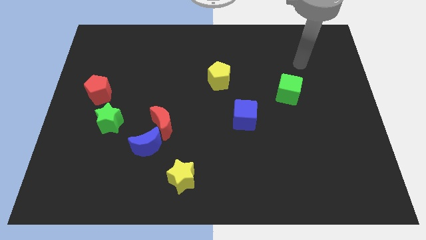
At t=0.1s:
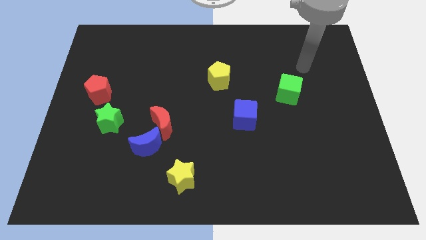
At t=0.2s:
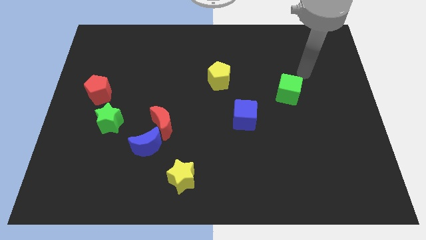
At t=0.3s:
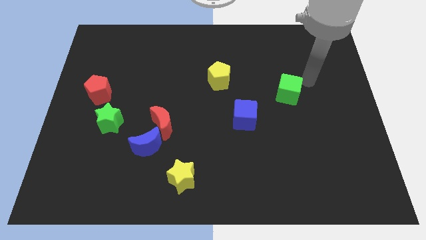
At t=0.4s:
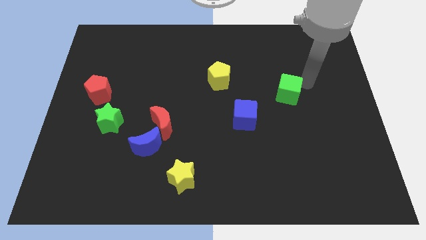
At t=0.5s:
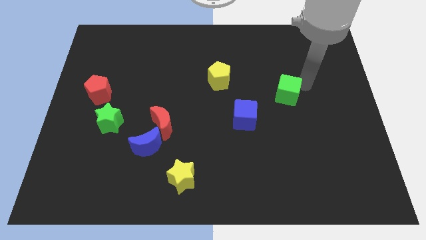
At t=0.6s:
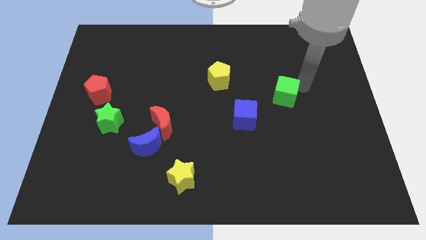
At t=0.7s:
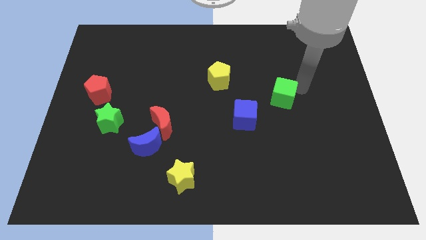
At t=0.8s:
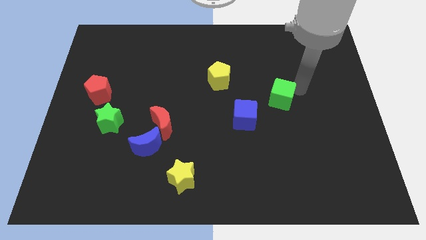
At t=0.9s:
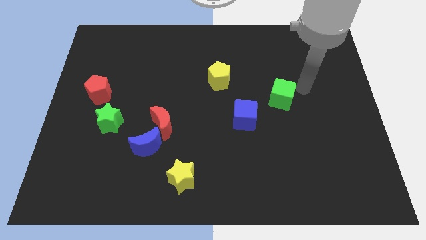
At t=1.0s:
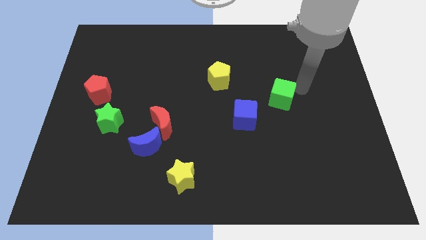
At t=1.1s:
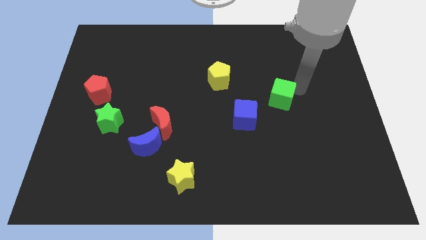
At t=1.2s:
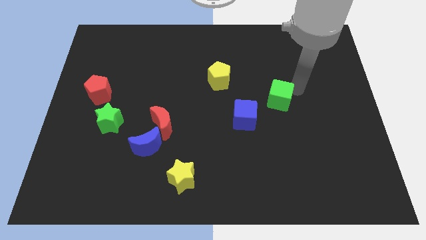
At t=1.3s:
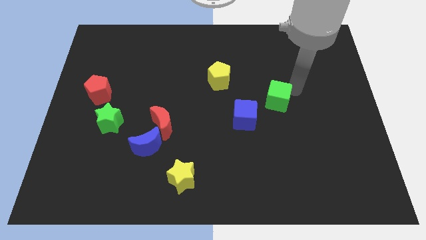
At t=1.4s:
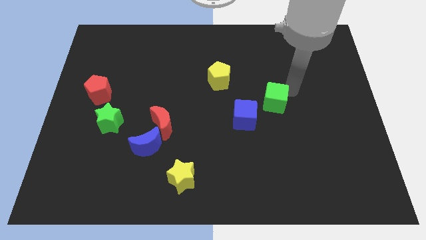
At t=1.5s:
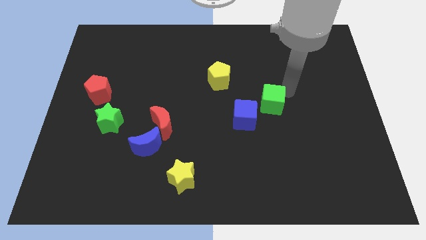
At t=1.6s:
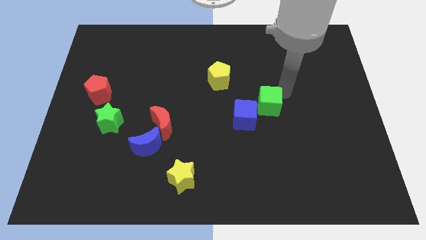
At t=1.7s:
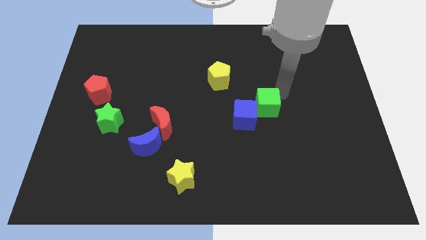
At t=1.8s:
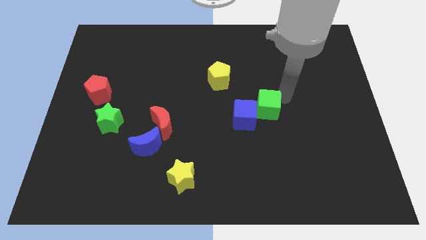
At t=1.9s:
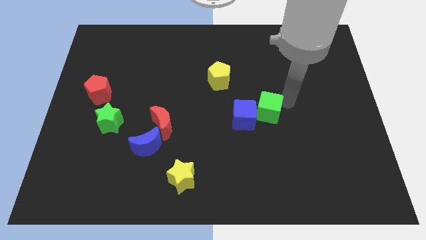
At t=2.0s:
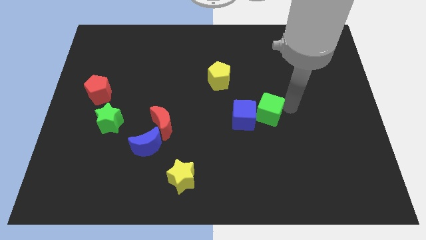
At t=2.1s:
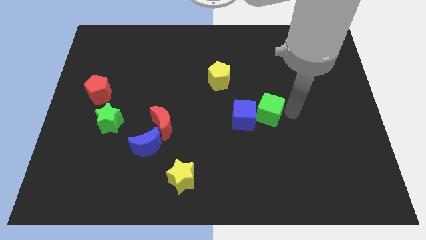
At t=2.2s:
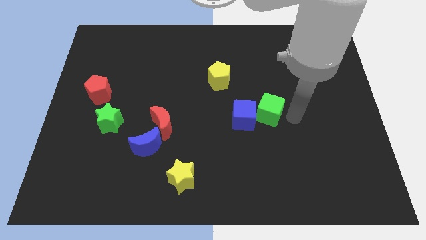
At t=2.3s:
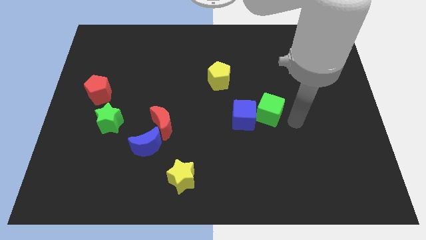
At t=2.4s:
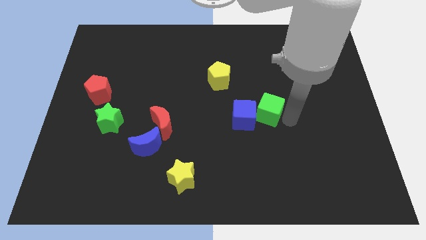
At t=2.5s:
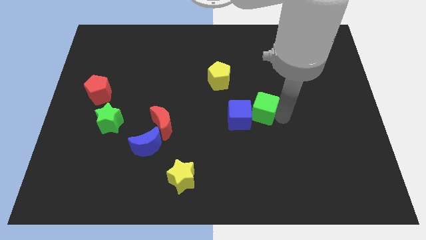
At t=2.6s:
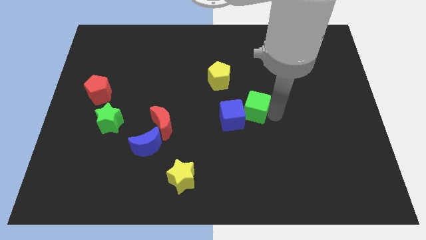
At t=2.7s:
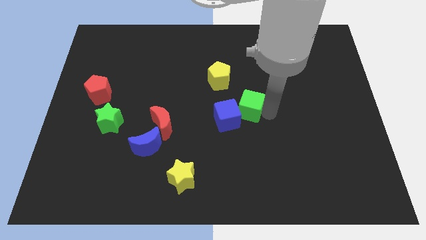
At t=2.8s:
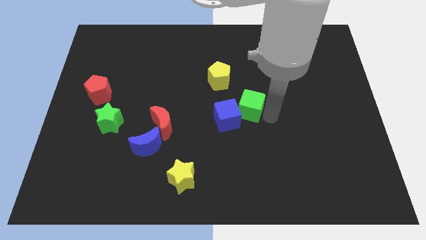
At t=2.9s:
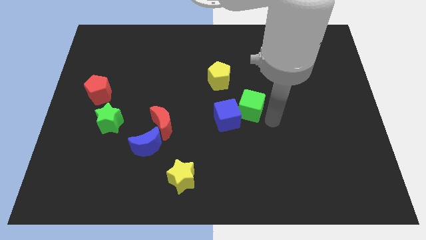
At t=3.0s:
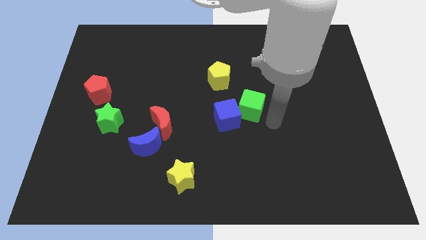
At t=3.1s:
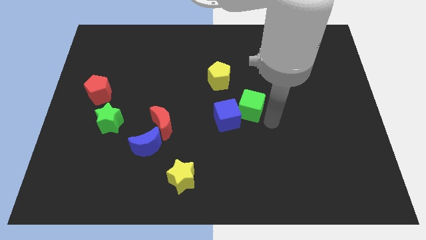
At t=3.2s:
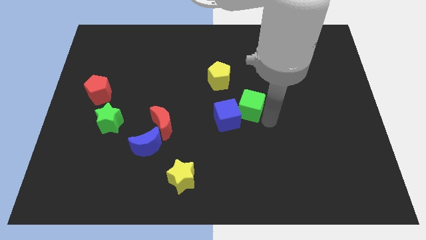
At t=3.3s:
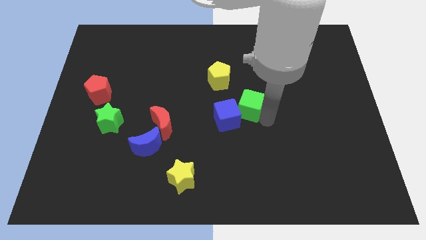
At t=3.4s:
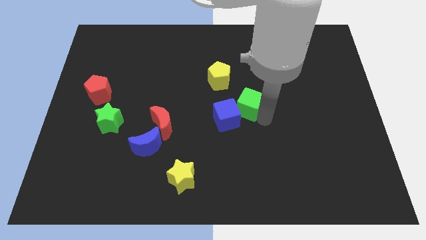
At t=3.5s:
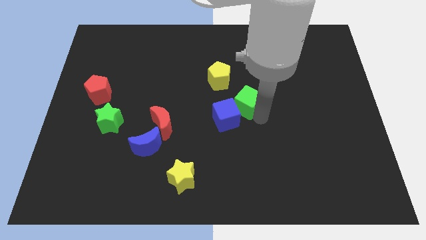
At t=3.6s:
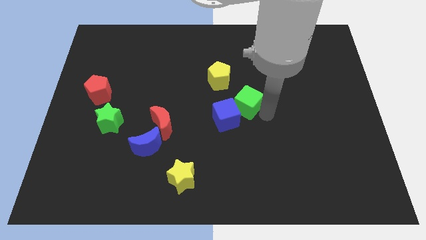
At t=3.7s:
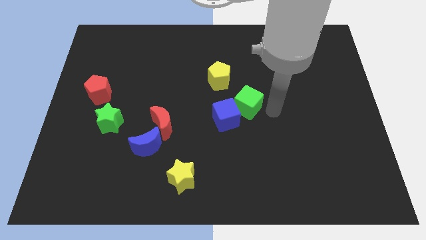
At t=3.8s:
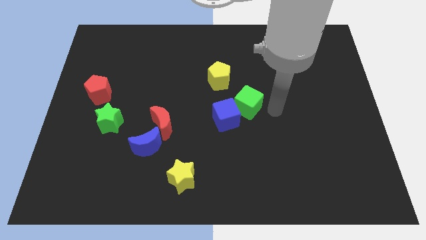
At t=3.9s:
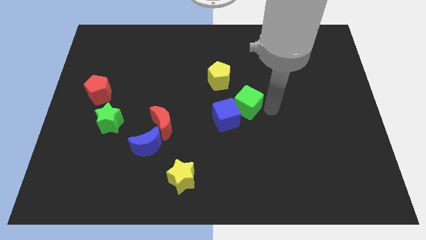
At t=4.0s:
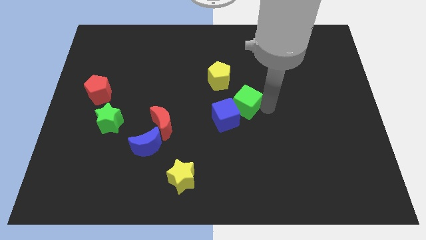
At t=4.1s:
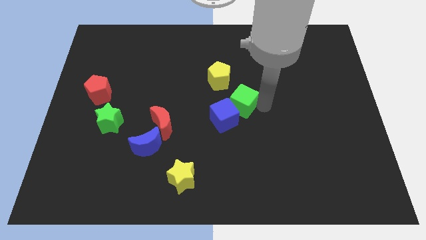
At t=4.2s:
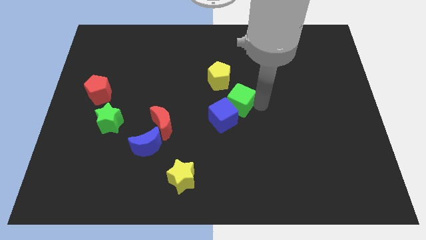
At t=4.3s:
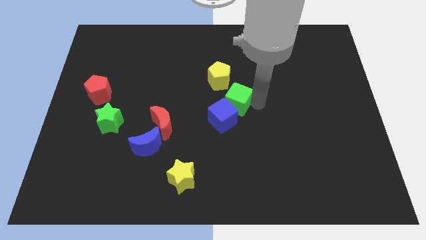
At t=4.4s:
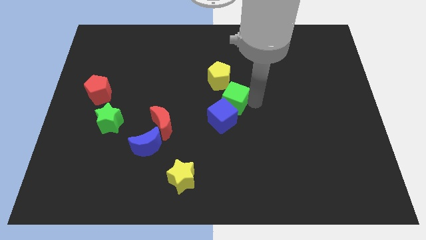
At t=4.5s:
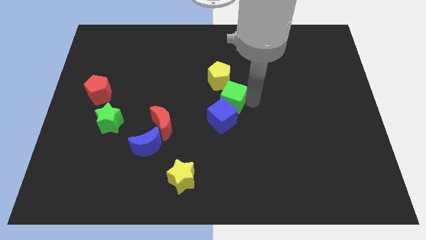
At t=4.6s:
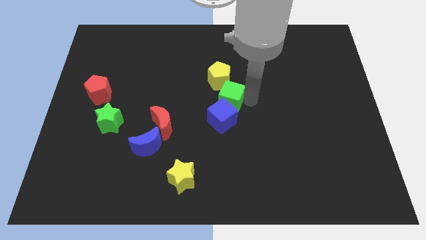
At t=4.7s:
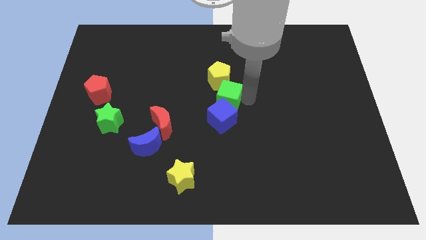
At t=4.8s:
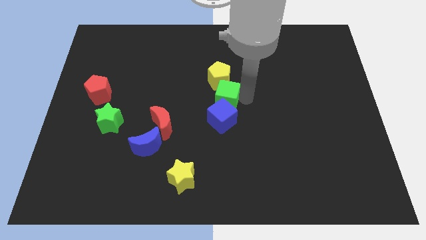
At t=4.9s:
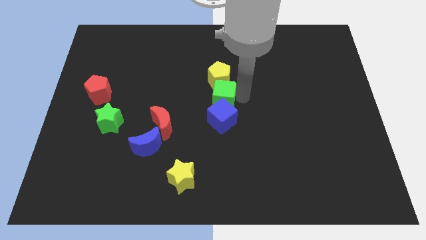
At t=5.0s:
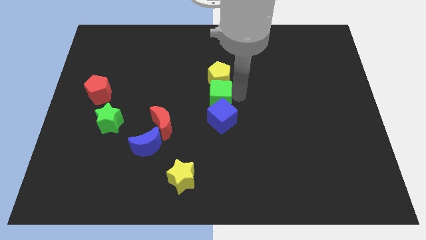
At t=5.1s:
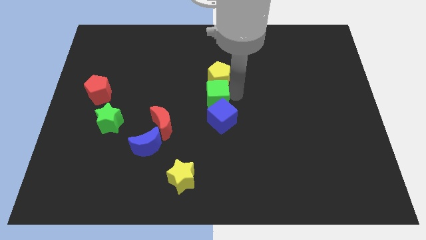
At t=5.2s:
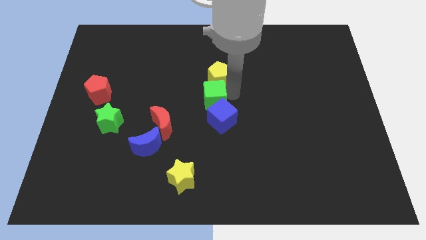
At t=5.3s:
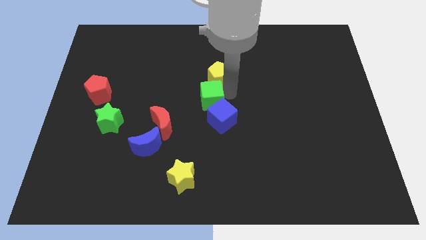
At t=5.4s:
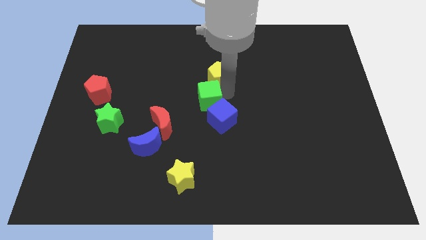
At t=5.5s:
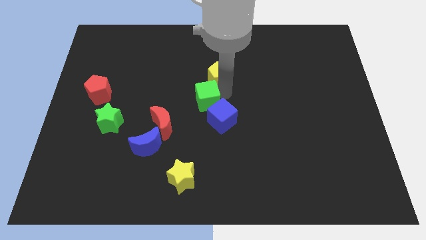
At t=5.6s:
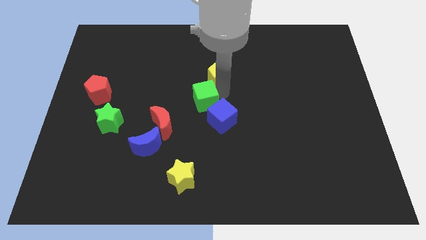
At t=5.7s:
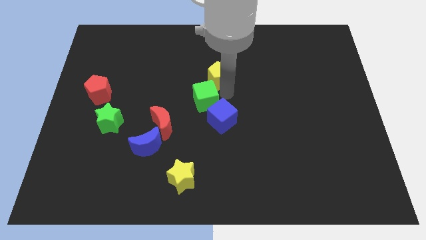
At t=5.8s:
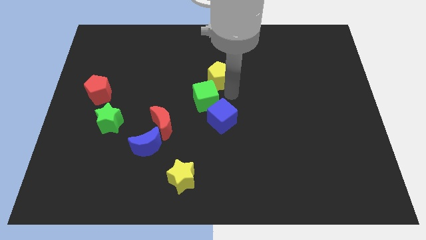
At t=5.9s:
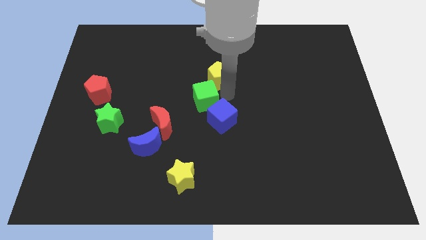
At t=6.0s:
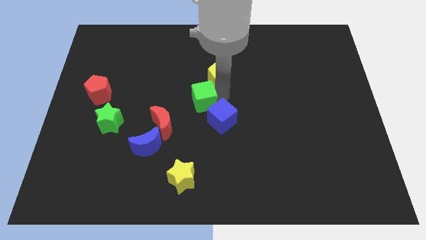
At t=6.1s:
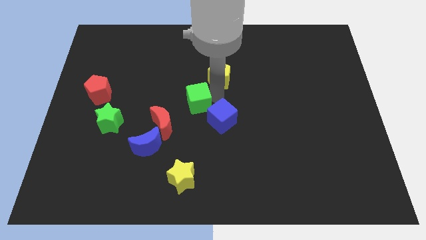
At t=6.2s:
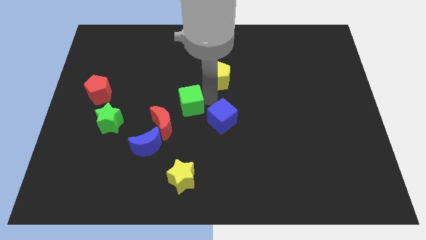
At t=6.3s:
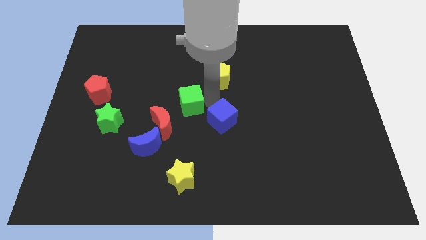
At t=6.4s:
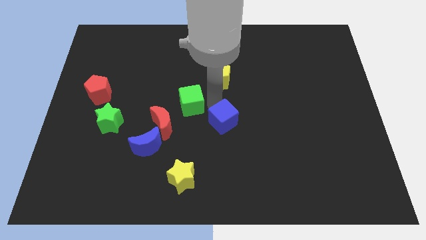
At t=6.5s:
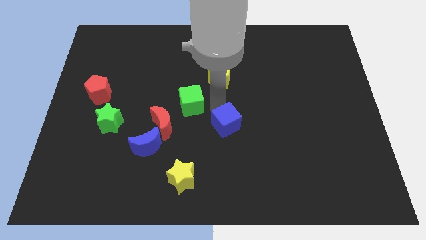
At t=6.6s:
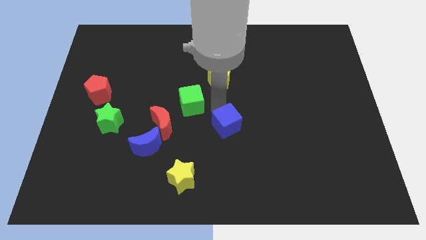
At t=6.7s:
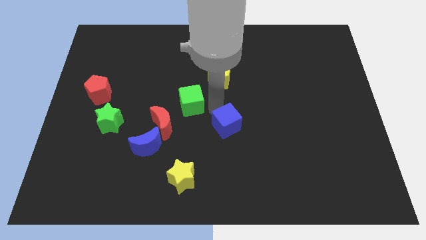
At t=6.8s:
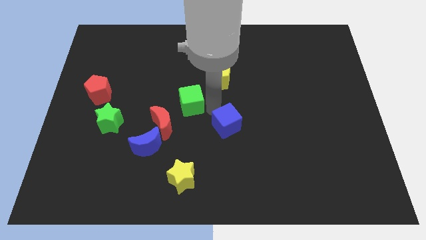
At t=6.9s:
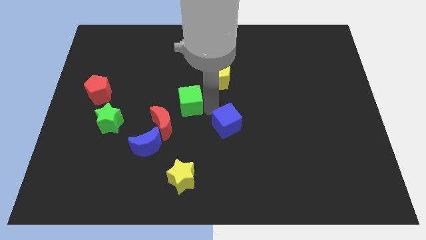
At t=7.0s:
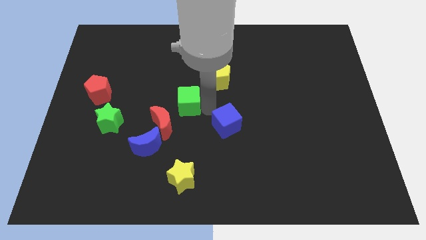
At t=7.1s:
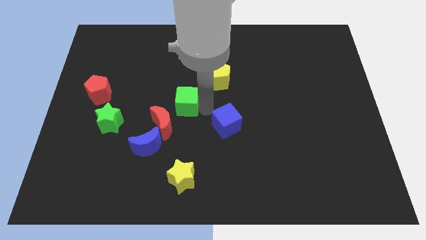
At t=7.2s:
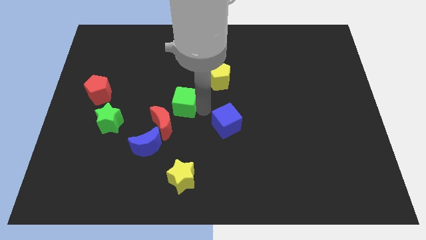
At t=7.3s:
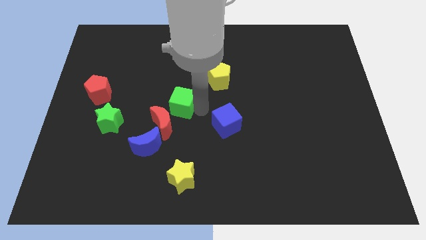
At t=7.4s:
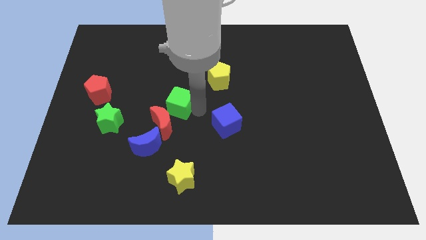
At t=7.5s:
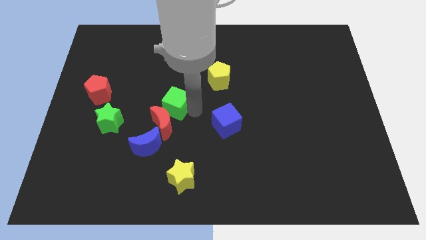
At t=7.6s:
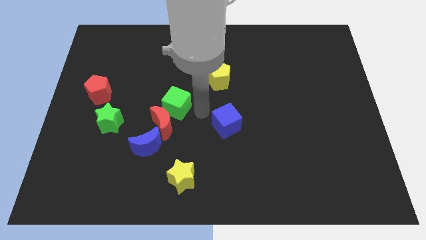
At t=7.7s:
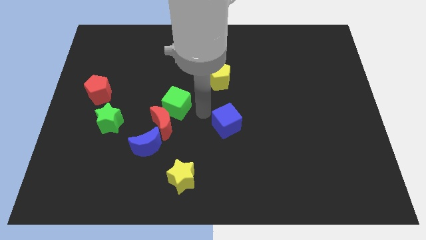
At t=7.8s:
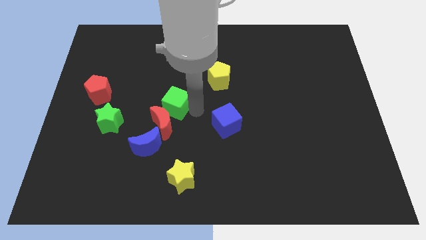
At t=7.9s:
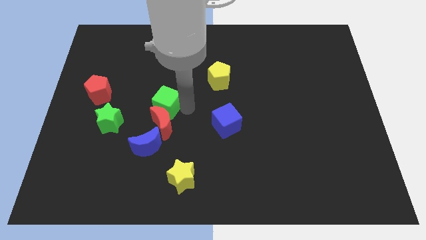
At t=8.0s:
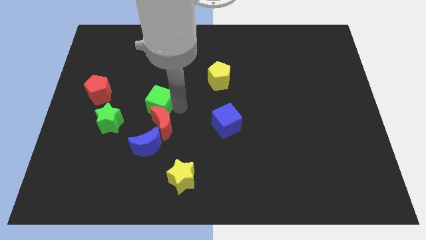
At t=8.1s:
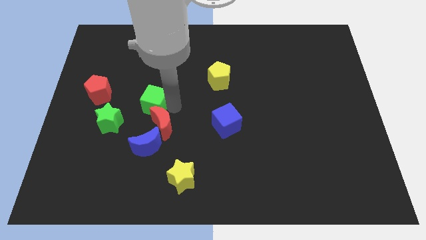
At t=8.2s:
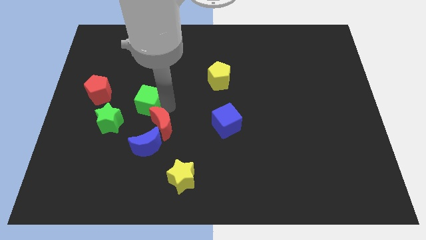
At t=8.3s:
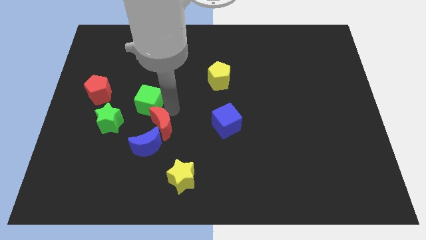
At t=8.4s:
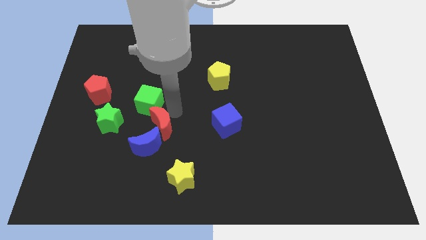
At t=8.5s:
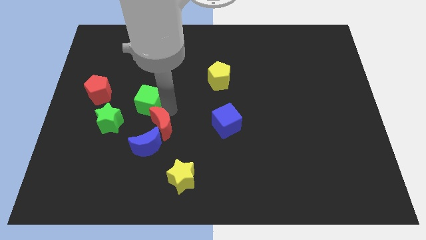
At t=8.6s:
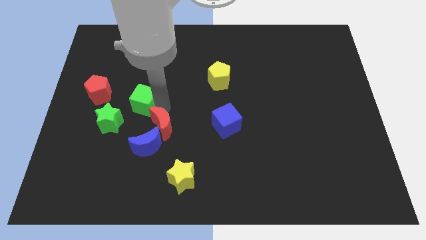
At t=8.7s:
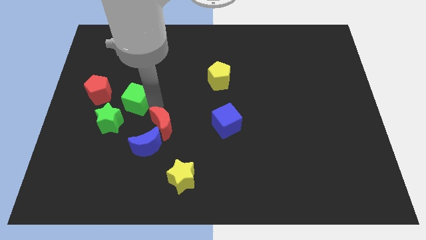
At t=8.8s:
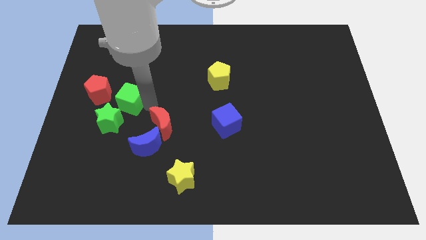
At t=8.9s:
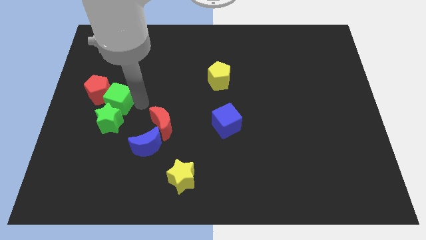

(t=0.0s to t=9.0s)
put the green cube towards the red pentagon
